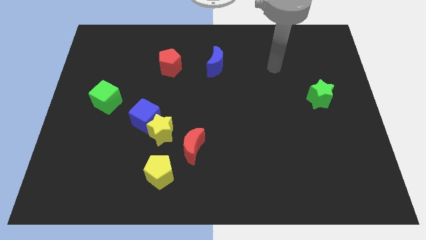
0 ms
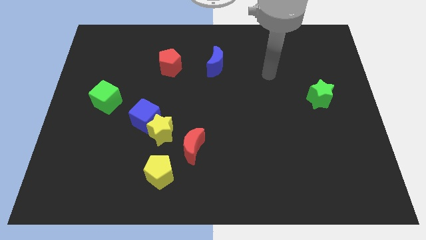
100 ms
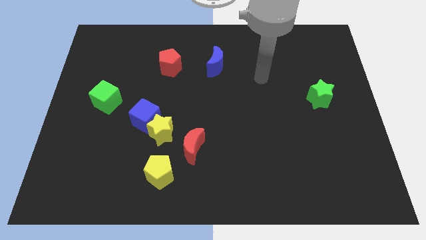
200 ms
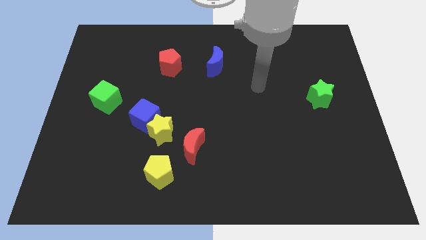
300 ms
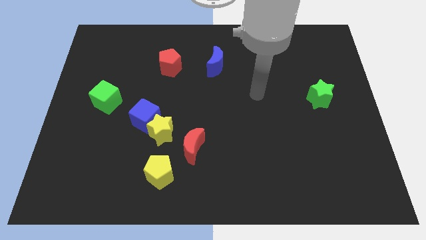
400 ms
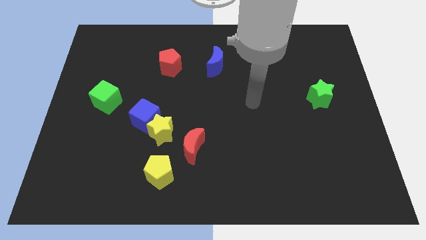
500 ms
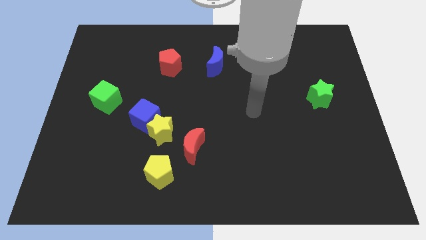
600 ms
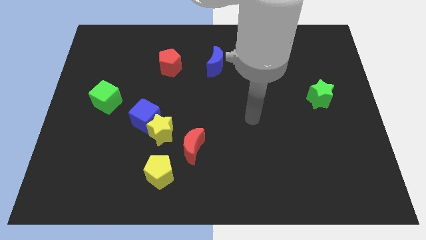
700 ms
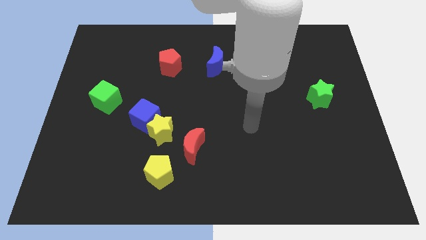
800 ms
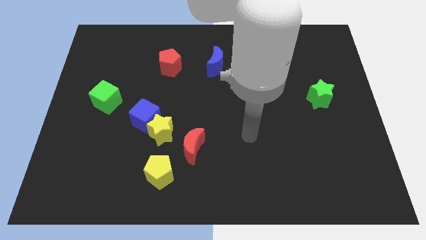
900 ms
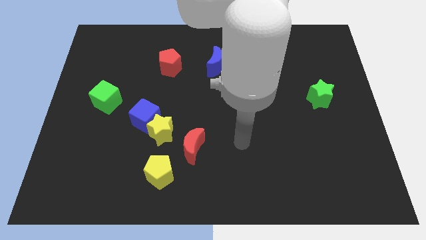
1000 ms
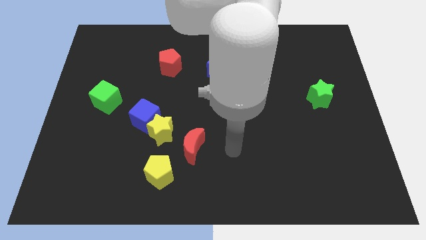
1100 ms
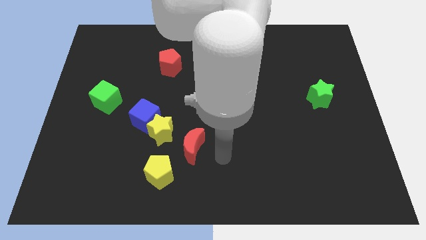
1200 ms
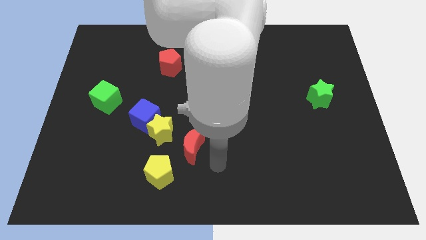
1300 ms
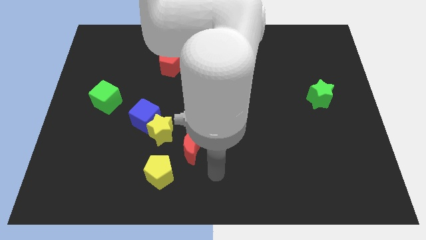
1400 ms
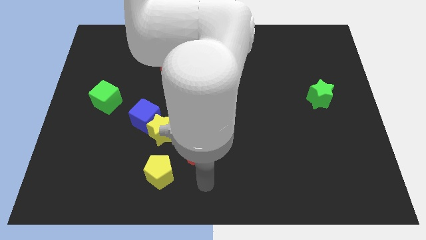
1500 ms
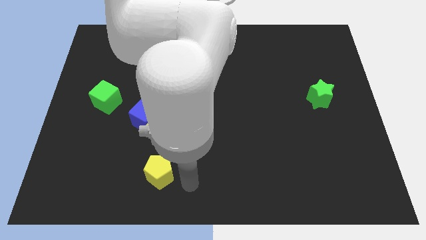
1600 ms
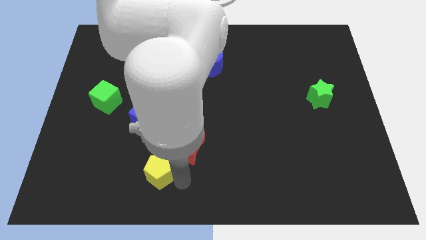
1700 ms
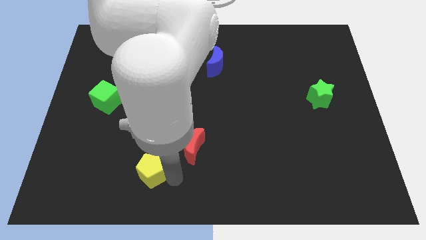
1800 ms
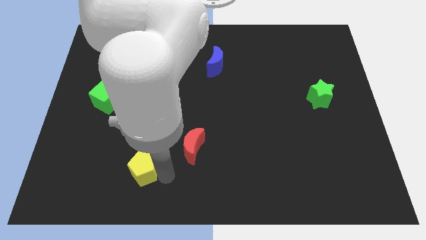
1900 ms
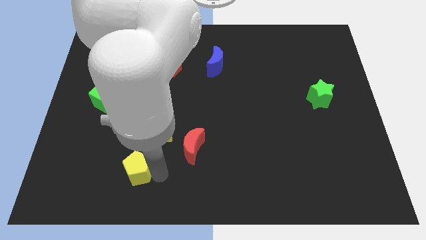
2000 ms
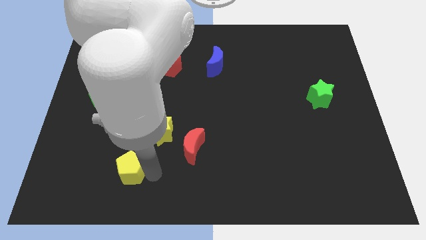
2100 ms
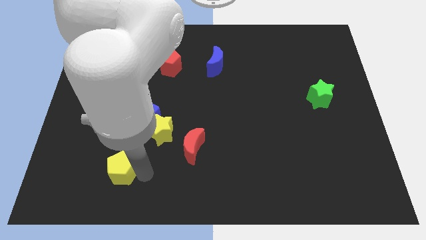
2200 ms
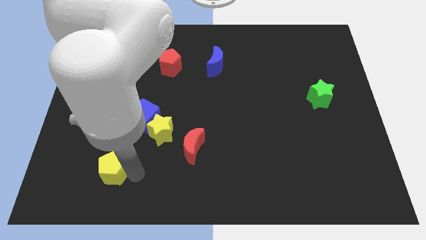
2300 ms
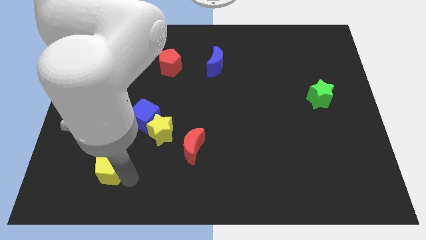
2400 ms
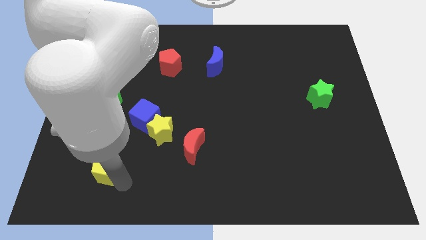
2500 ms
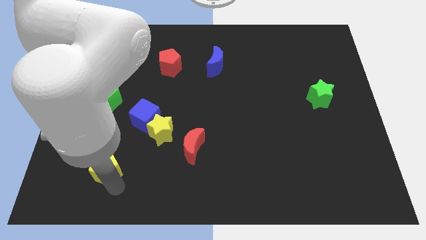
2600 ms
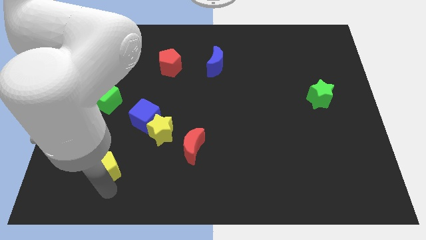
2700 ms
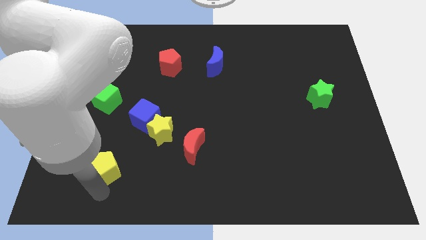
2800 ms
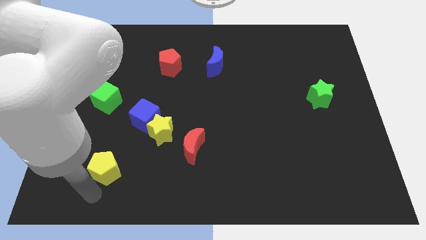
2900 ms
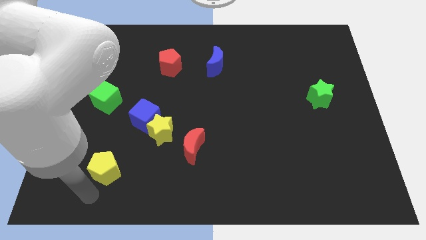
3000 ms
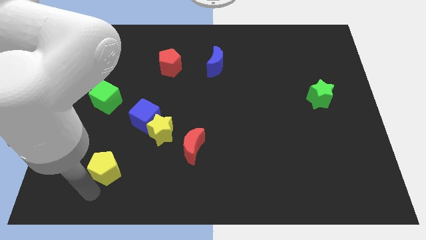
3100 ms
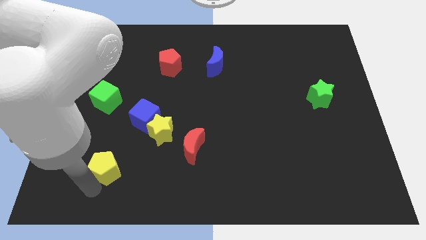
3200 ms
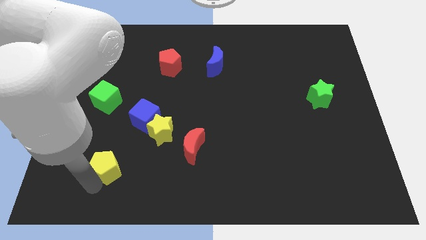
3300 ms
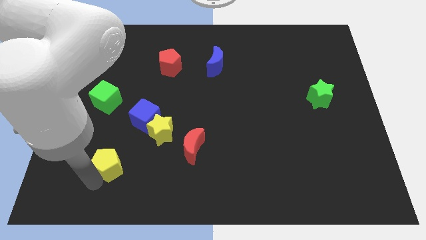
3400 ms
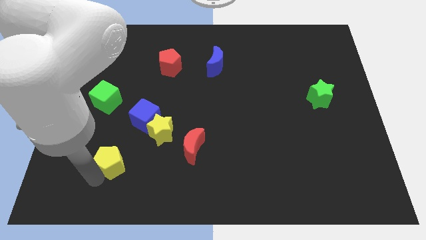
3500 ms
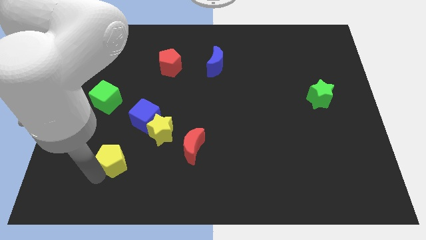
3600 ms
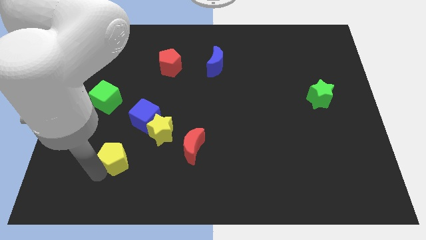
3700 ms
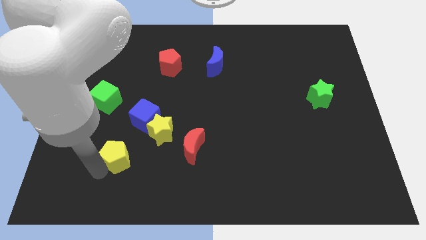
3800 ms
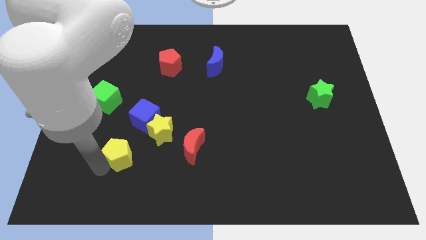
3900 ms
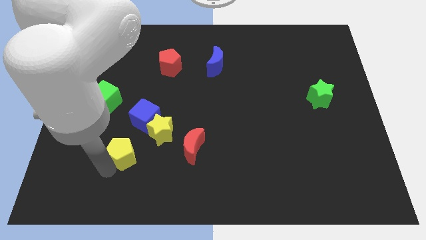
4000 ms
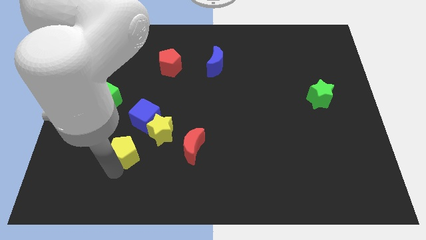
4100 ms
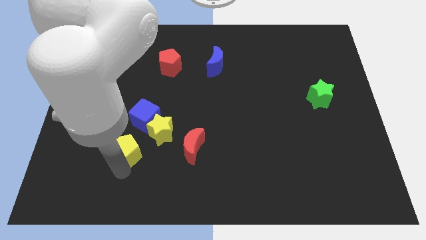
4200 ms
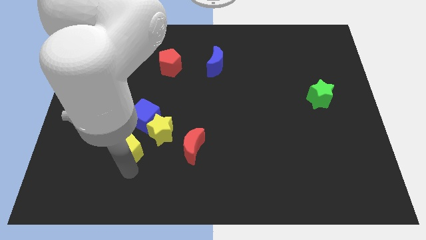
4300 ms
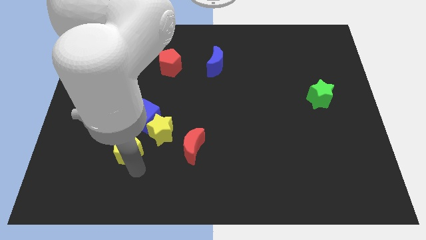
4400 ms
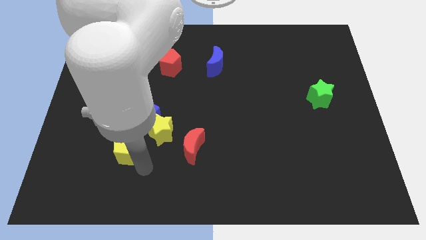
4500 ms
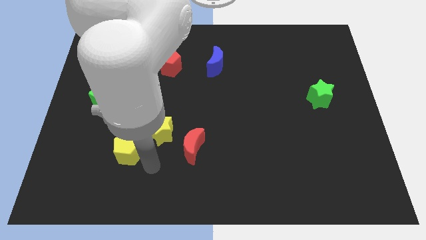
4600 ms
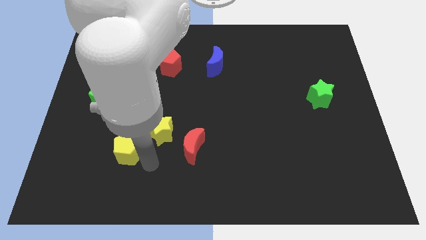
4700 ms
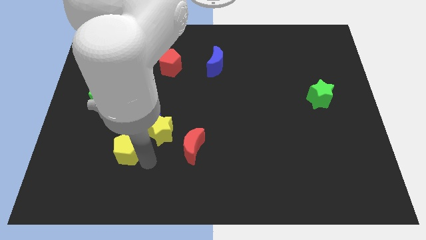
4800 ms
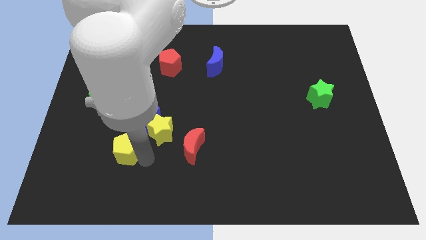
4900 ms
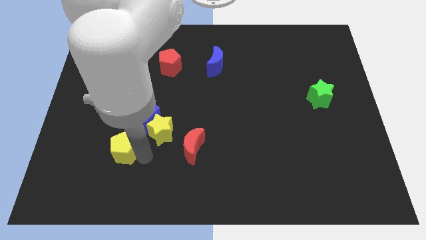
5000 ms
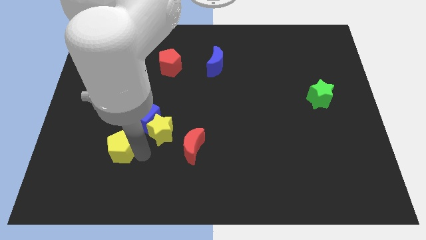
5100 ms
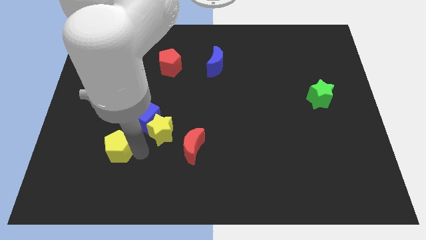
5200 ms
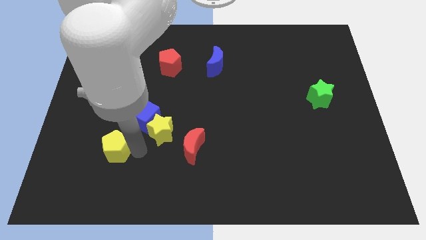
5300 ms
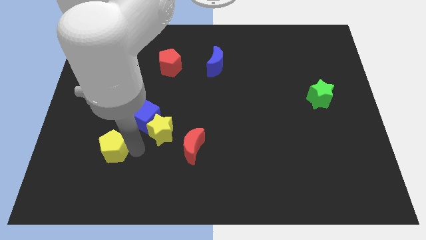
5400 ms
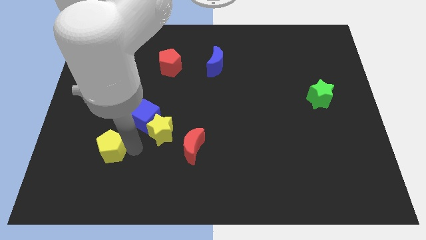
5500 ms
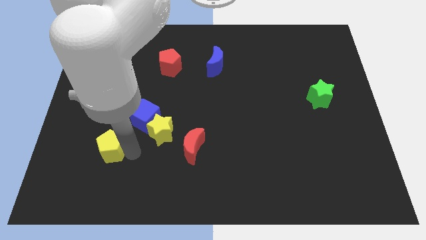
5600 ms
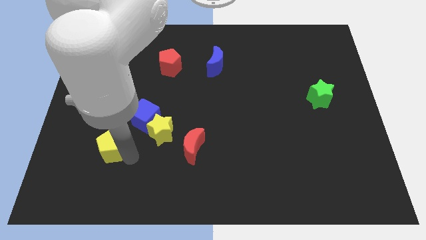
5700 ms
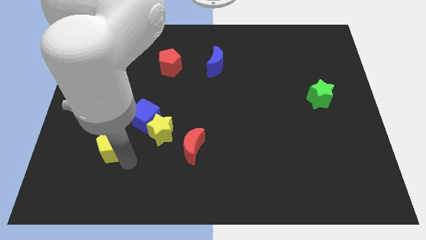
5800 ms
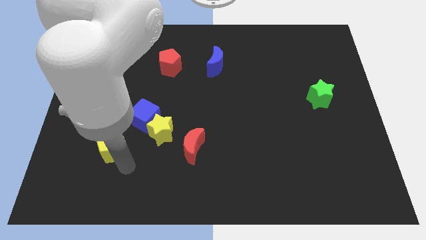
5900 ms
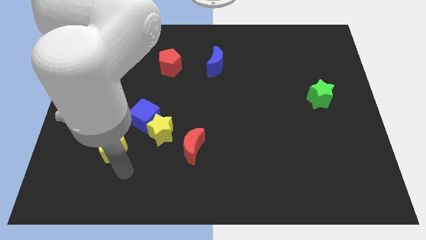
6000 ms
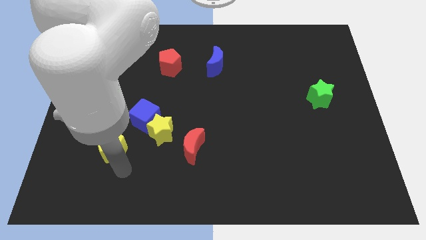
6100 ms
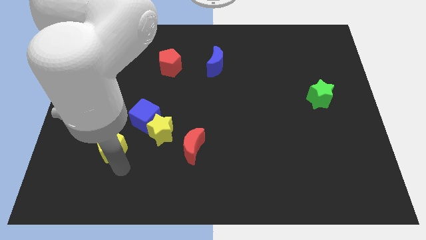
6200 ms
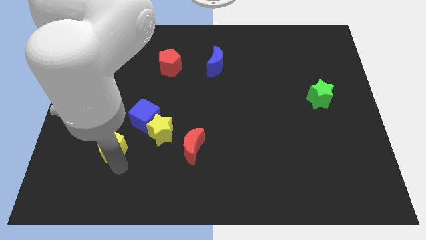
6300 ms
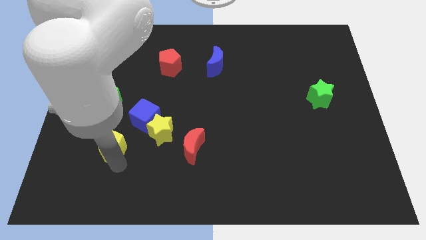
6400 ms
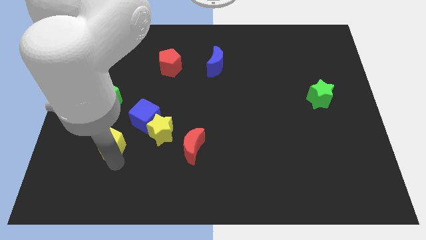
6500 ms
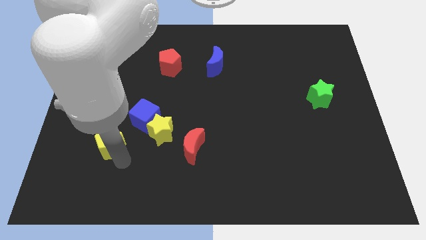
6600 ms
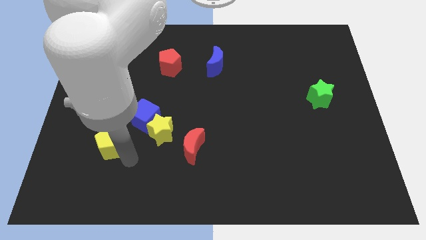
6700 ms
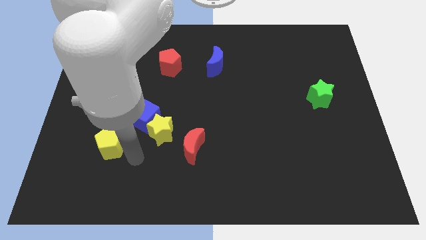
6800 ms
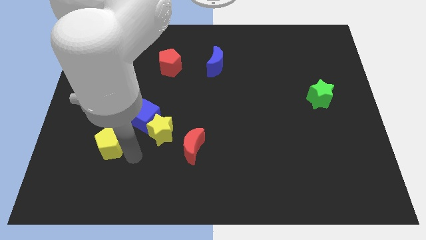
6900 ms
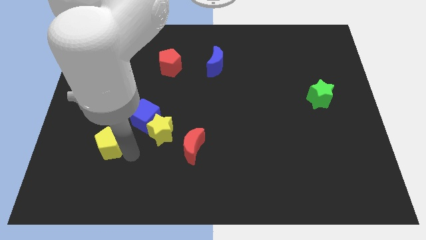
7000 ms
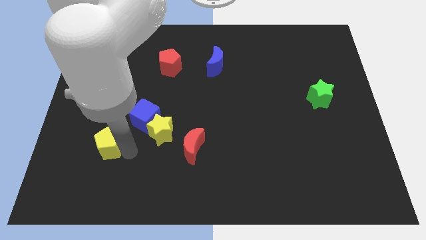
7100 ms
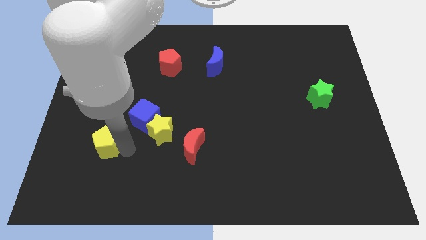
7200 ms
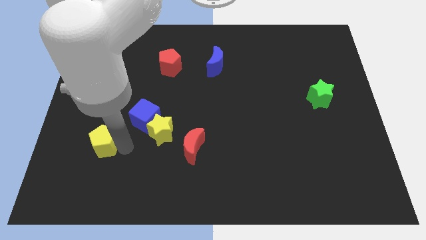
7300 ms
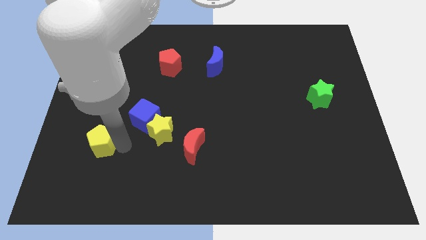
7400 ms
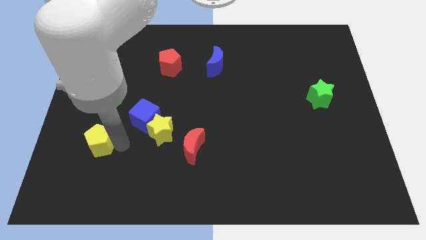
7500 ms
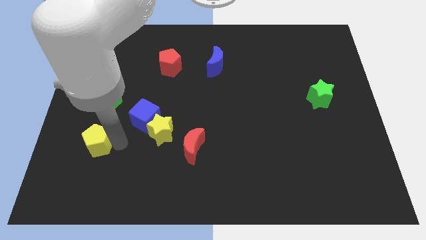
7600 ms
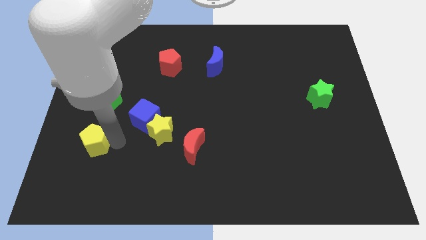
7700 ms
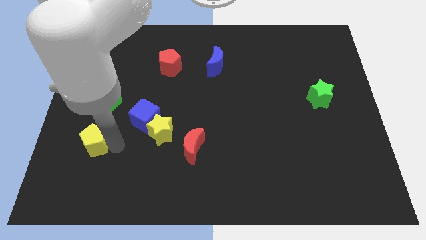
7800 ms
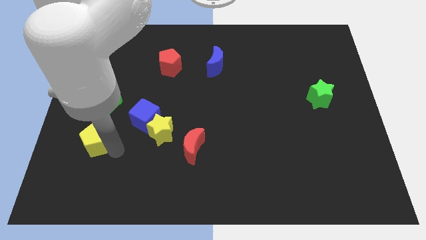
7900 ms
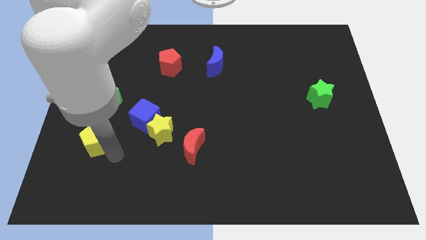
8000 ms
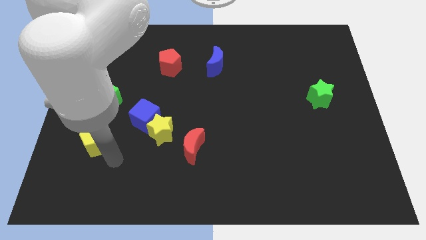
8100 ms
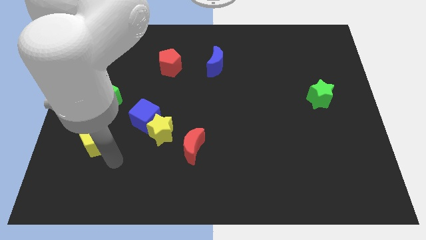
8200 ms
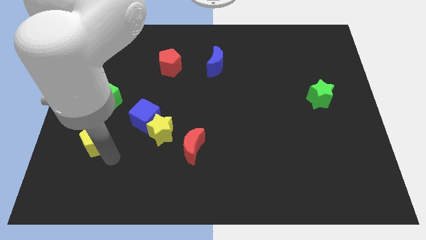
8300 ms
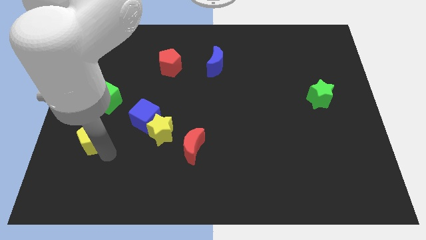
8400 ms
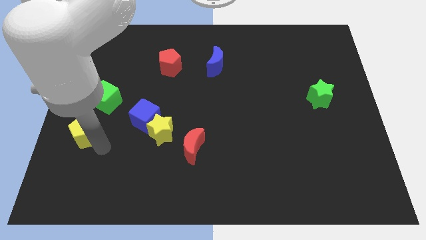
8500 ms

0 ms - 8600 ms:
push the yellow pentagon to the left side of the board
